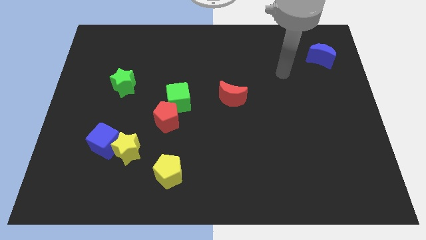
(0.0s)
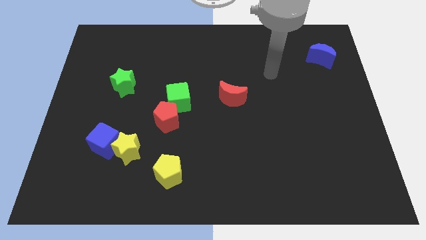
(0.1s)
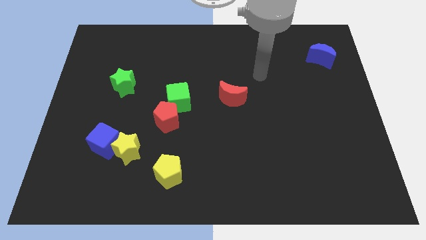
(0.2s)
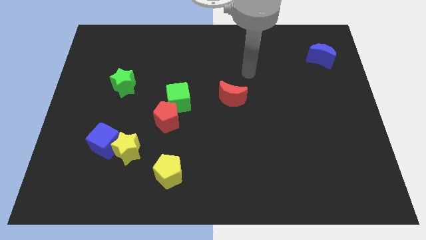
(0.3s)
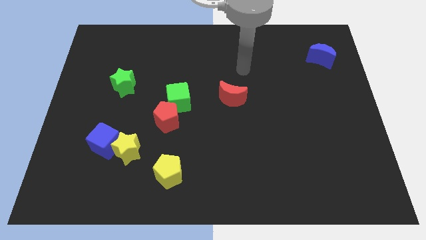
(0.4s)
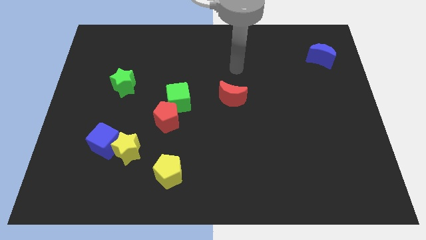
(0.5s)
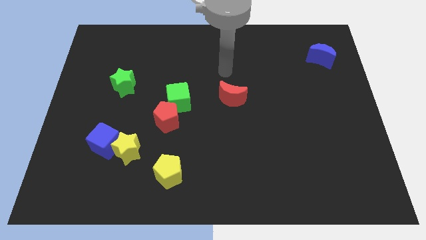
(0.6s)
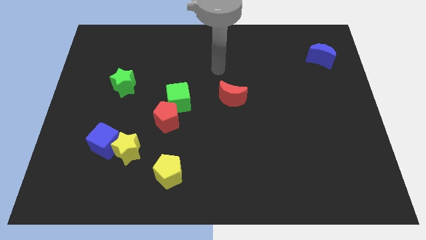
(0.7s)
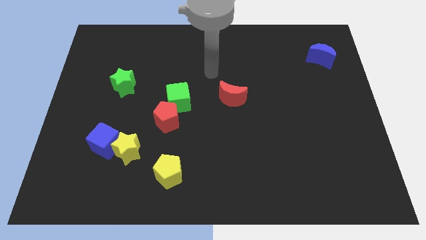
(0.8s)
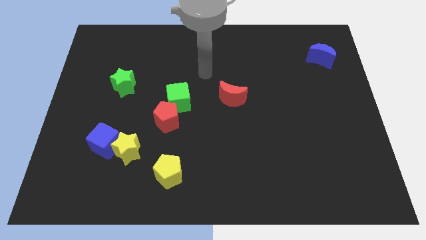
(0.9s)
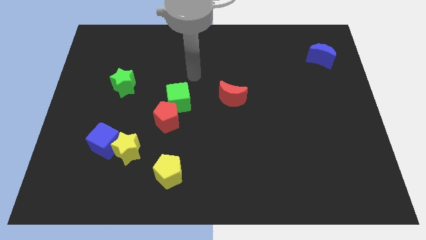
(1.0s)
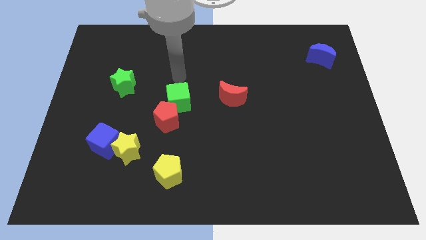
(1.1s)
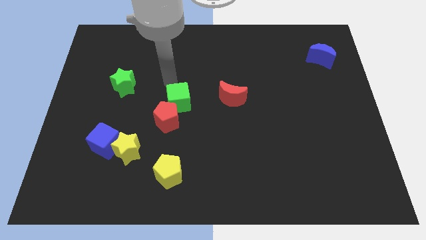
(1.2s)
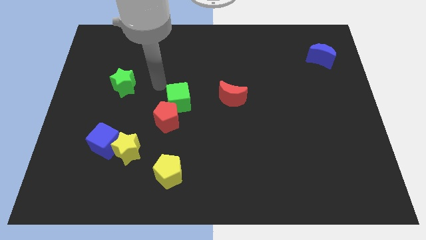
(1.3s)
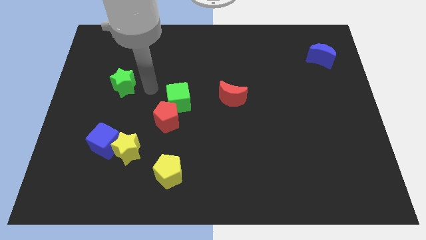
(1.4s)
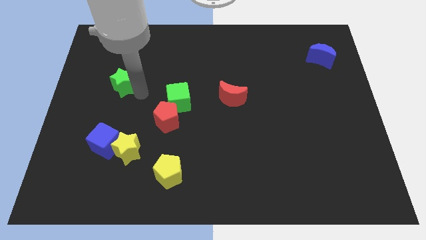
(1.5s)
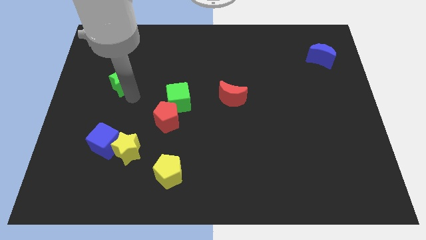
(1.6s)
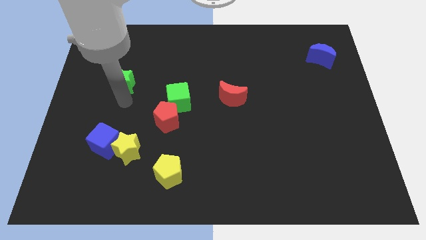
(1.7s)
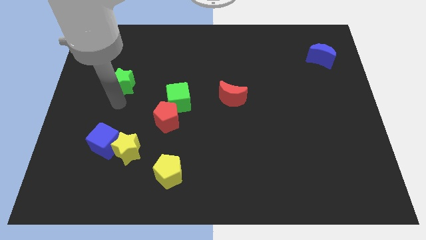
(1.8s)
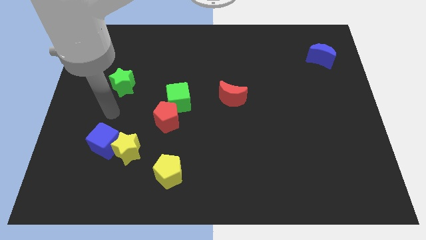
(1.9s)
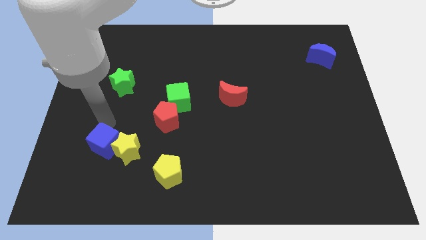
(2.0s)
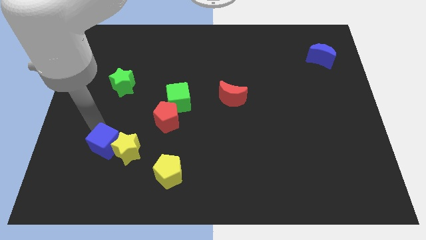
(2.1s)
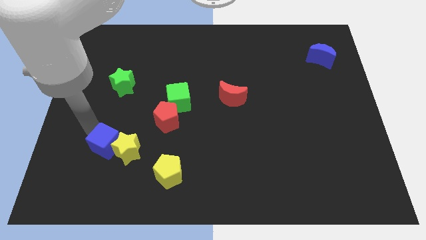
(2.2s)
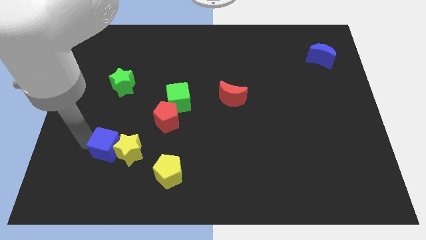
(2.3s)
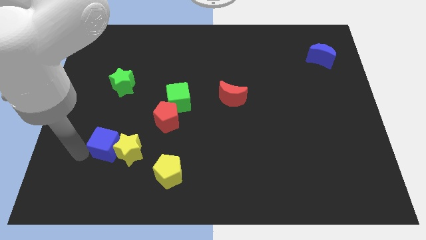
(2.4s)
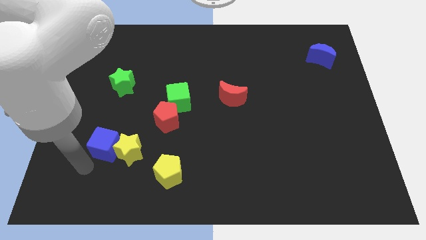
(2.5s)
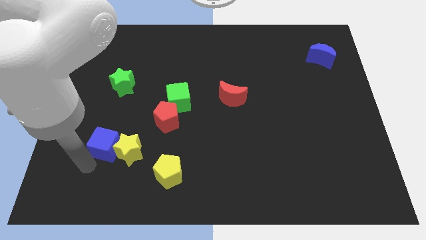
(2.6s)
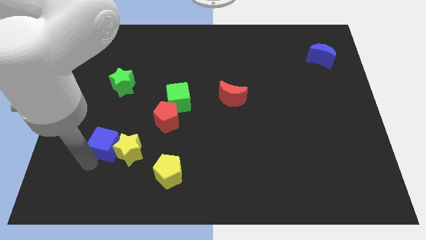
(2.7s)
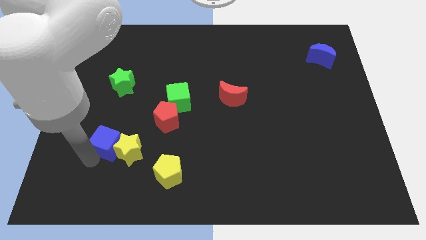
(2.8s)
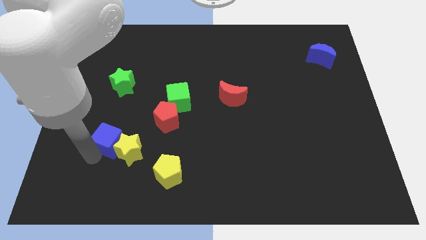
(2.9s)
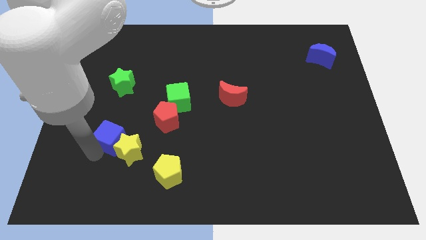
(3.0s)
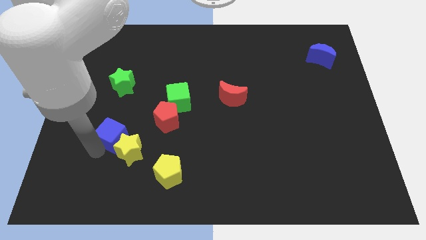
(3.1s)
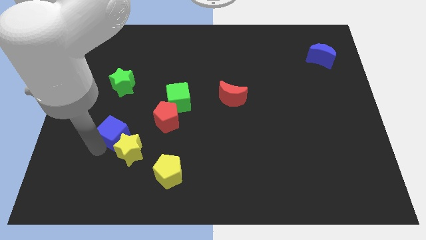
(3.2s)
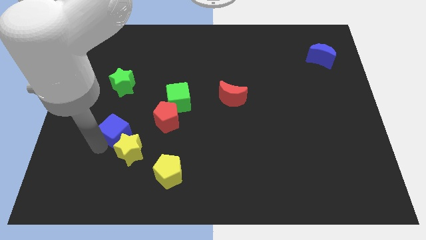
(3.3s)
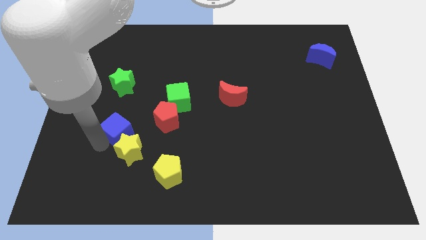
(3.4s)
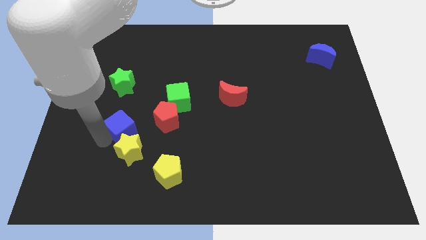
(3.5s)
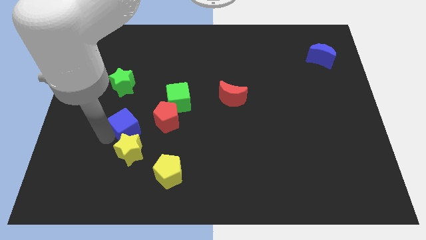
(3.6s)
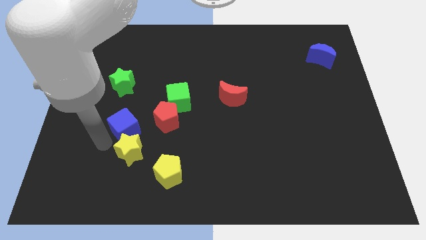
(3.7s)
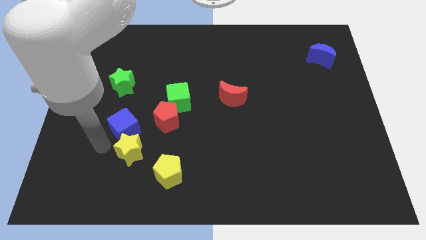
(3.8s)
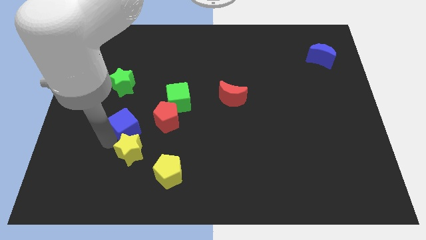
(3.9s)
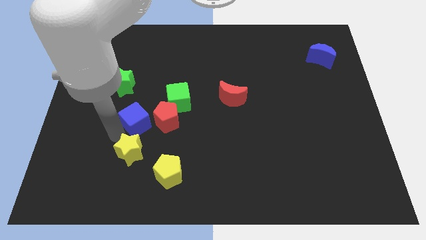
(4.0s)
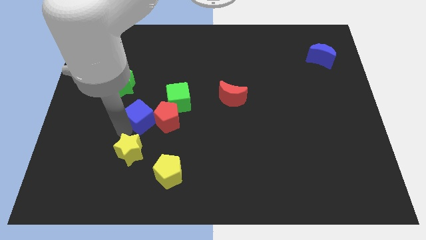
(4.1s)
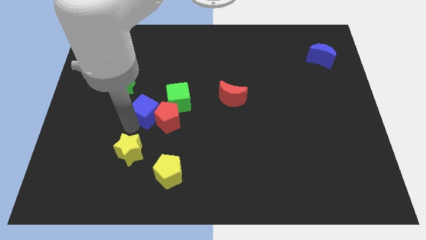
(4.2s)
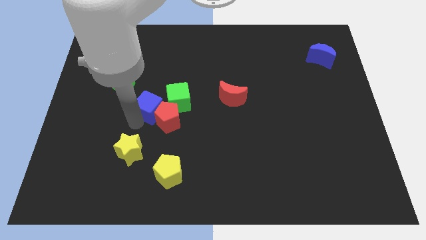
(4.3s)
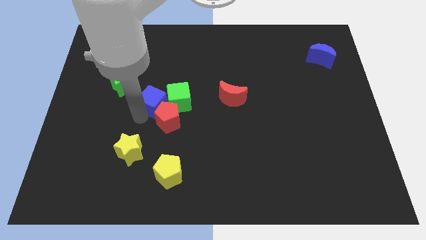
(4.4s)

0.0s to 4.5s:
push the blue cube close to the green cube

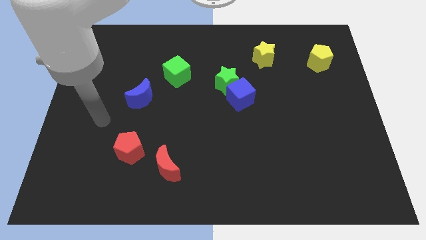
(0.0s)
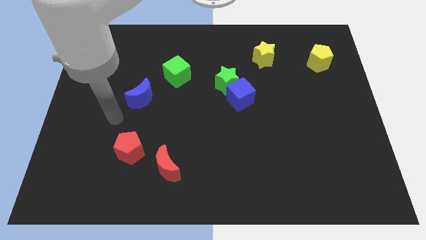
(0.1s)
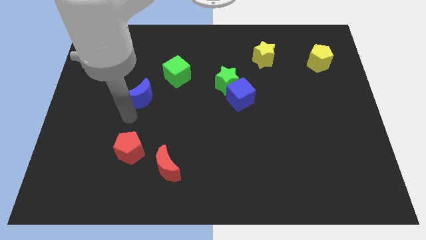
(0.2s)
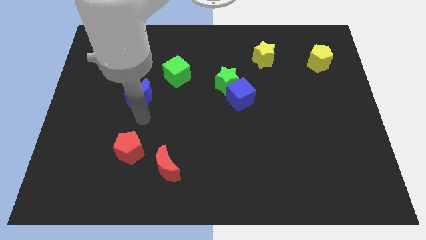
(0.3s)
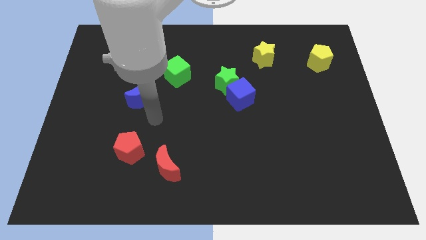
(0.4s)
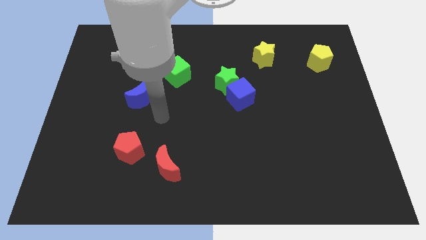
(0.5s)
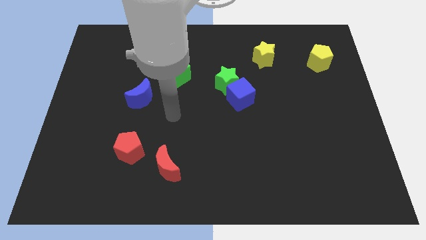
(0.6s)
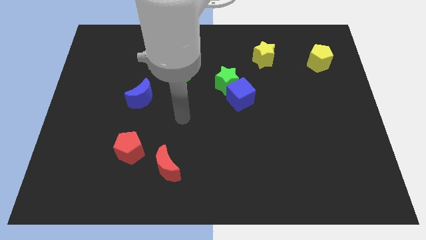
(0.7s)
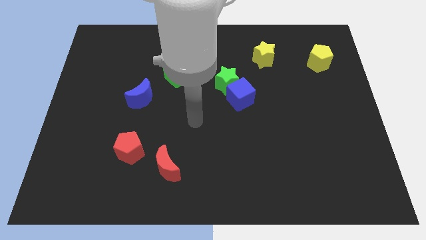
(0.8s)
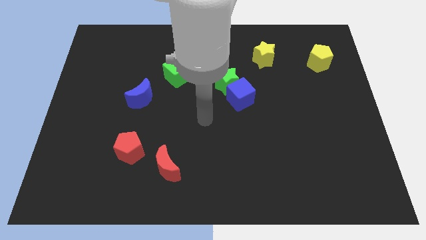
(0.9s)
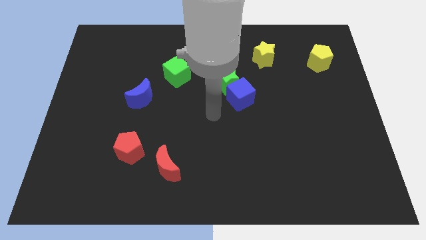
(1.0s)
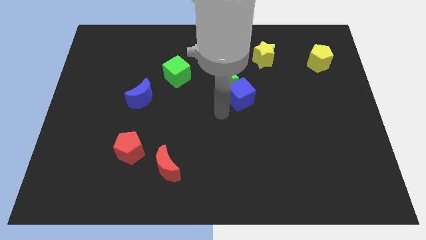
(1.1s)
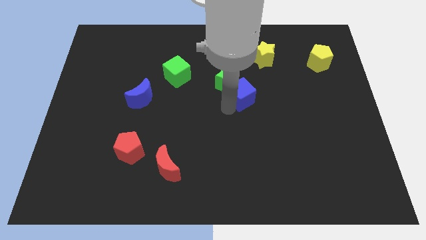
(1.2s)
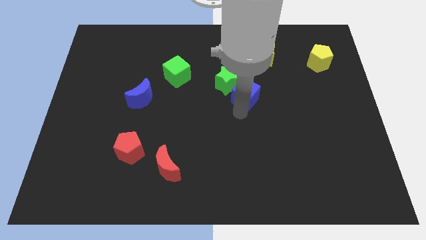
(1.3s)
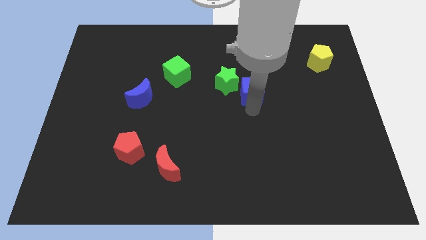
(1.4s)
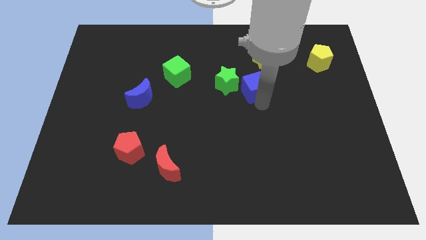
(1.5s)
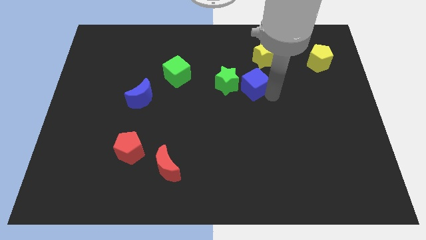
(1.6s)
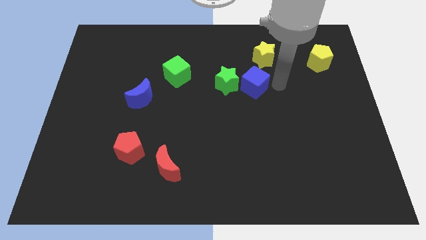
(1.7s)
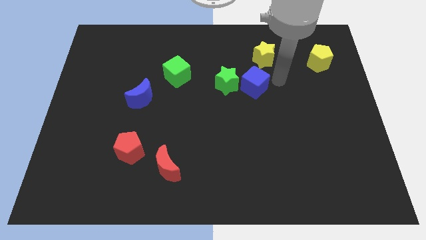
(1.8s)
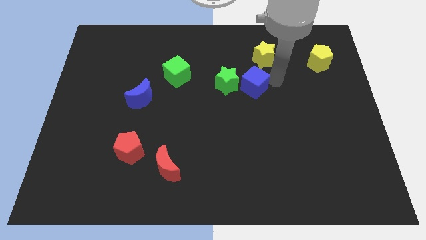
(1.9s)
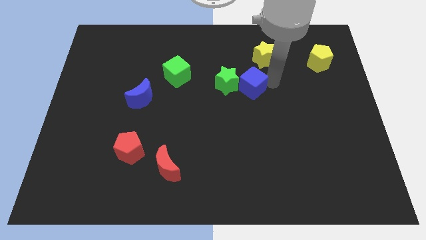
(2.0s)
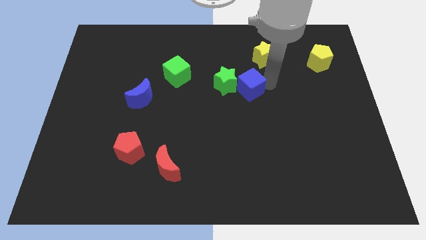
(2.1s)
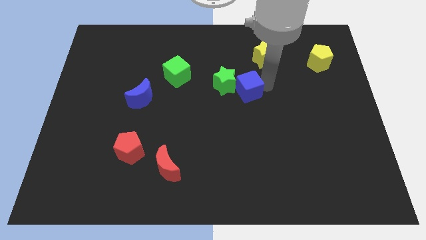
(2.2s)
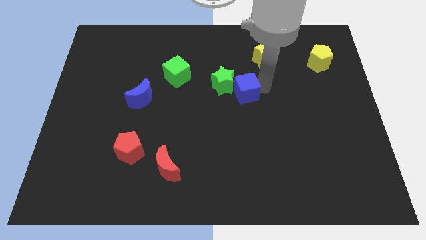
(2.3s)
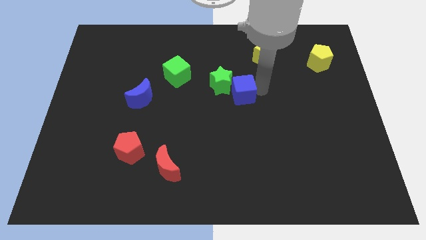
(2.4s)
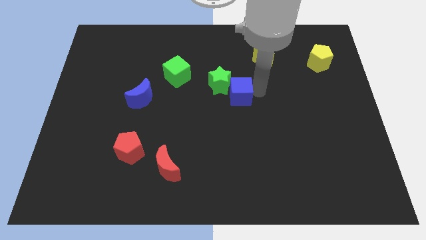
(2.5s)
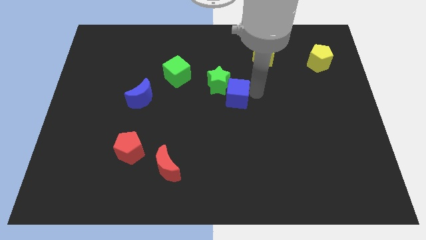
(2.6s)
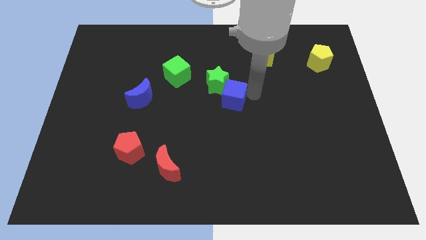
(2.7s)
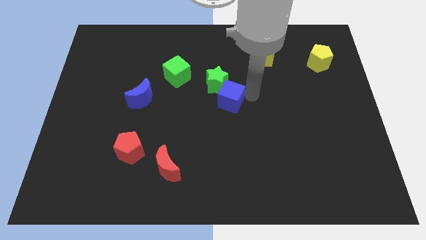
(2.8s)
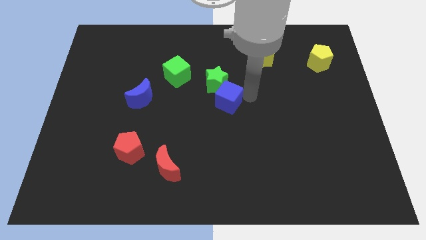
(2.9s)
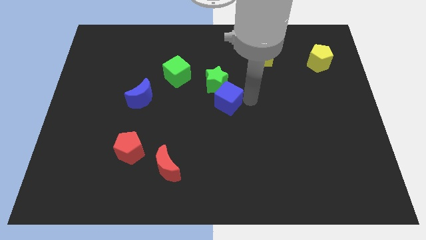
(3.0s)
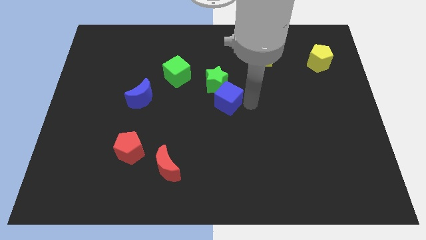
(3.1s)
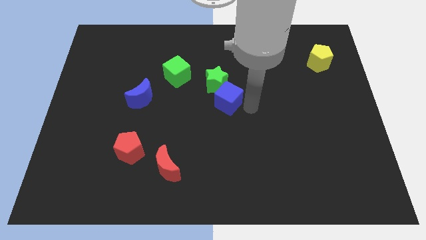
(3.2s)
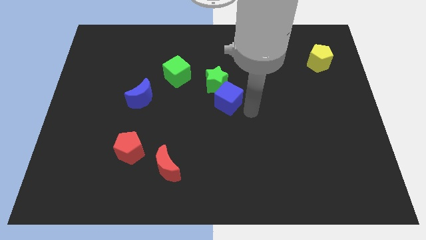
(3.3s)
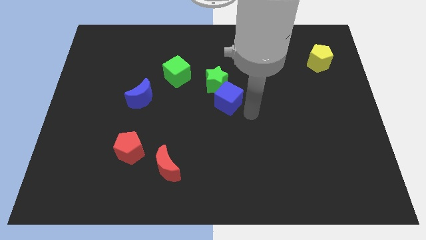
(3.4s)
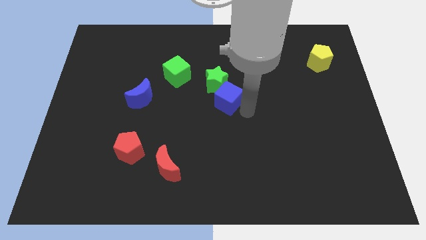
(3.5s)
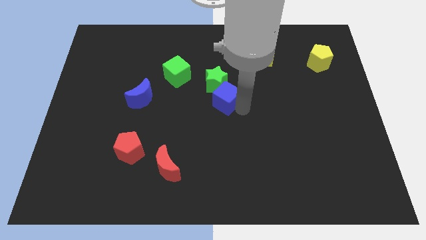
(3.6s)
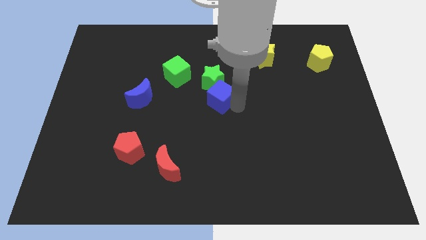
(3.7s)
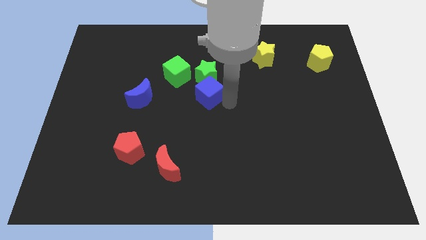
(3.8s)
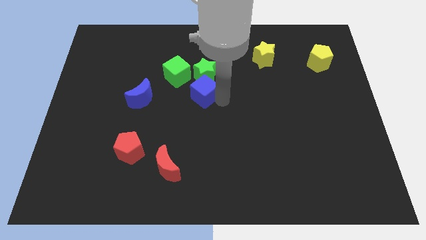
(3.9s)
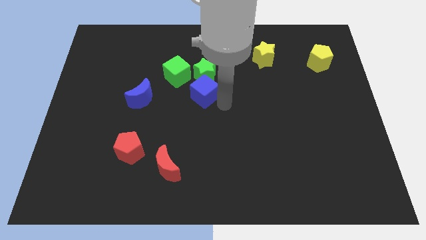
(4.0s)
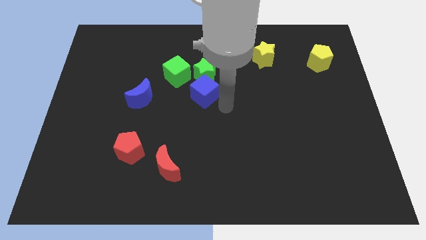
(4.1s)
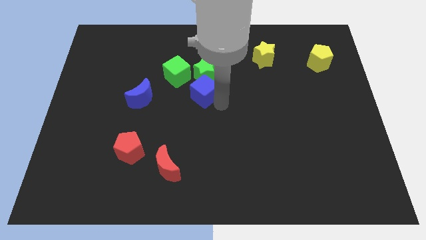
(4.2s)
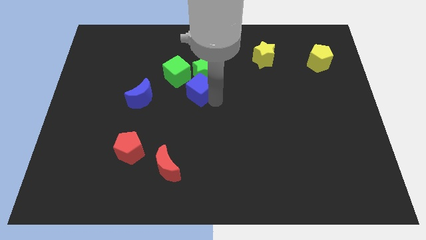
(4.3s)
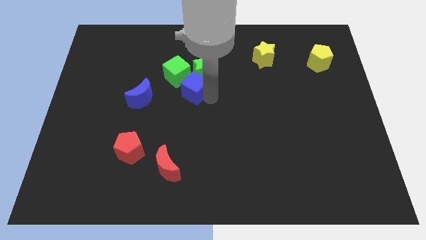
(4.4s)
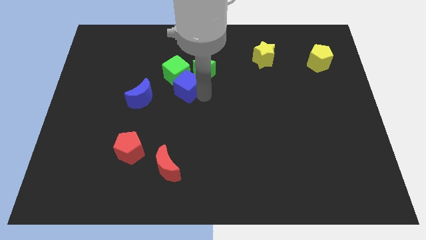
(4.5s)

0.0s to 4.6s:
push the blue cube towards the green cube
